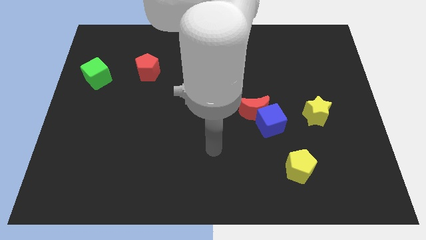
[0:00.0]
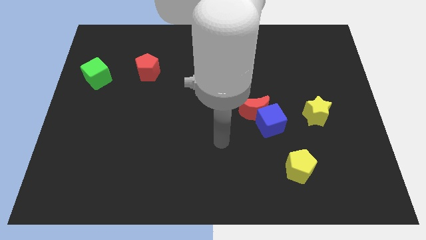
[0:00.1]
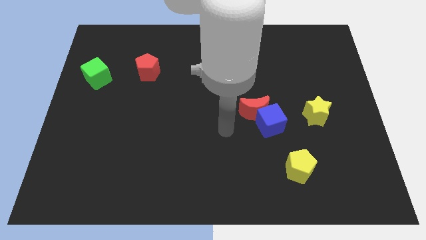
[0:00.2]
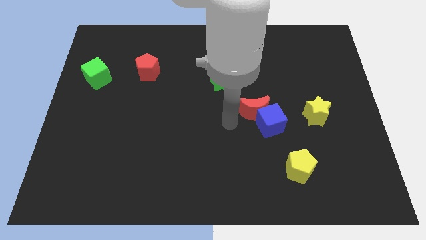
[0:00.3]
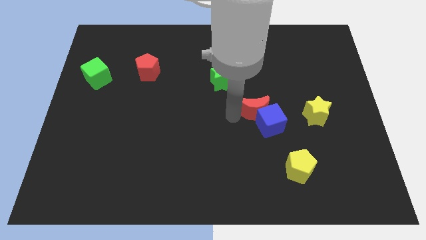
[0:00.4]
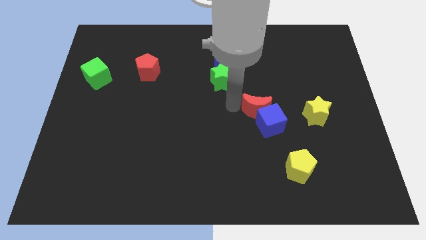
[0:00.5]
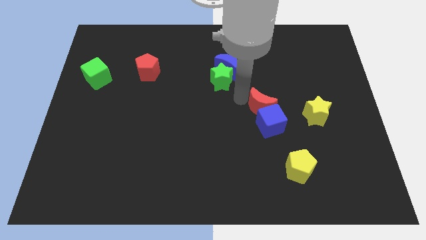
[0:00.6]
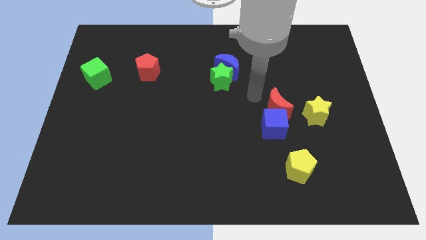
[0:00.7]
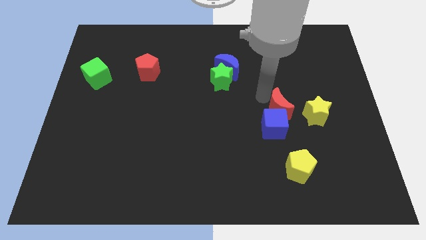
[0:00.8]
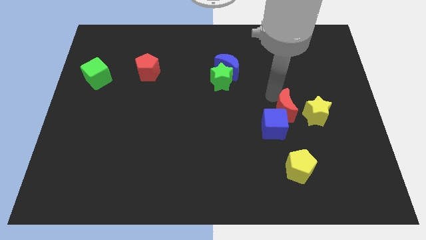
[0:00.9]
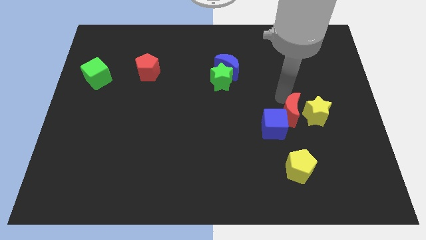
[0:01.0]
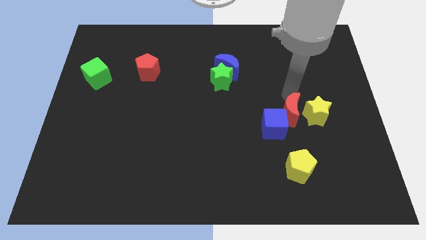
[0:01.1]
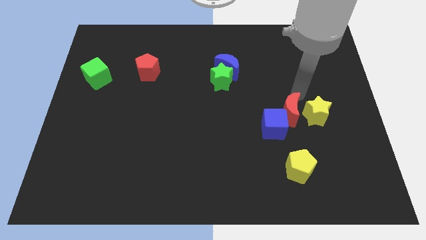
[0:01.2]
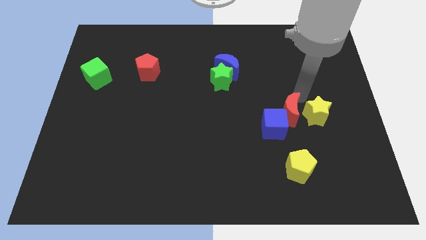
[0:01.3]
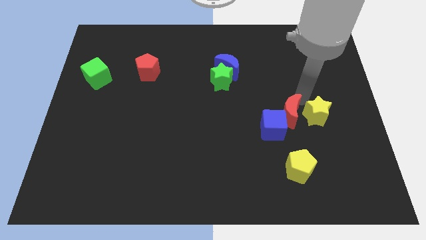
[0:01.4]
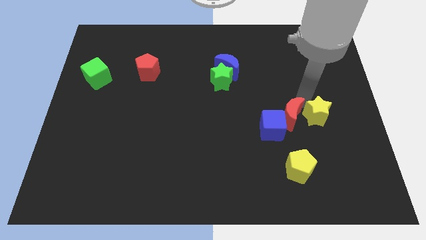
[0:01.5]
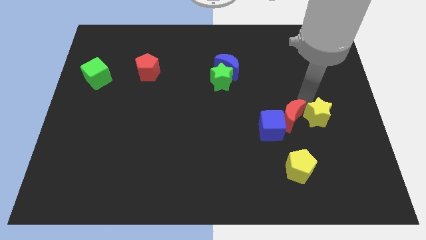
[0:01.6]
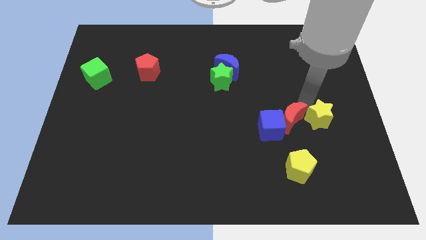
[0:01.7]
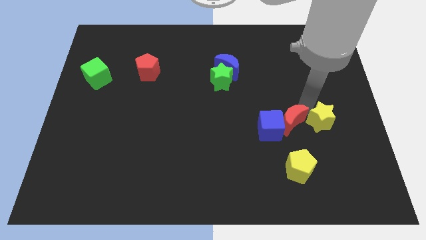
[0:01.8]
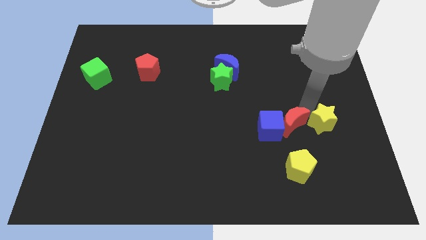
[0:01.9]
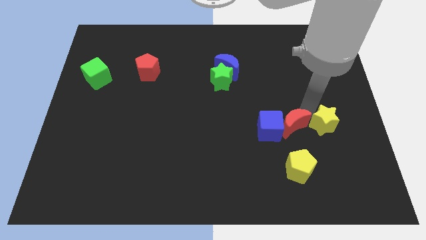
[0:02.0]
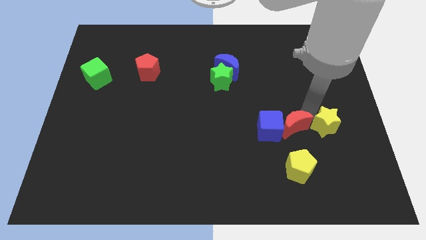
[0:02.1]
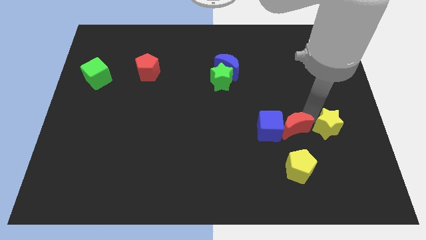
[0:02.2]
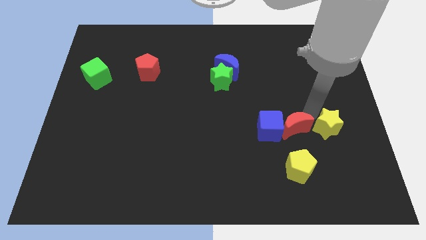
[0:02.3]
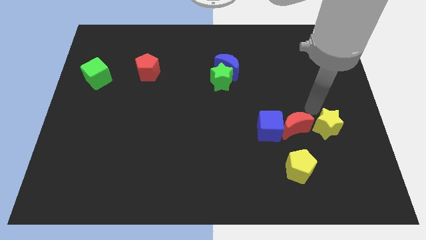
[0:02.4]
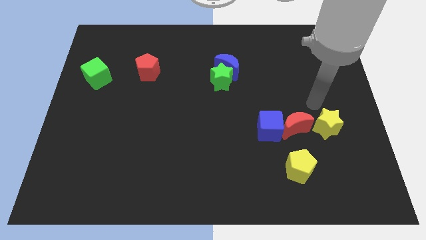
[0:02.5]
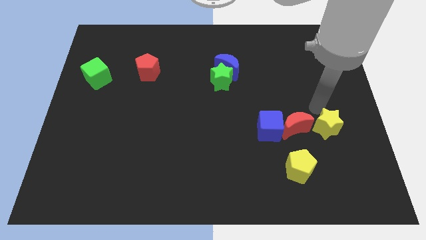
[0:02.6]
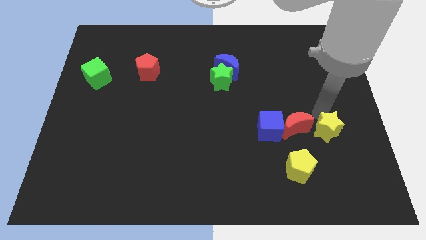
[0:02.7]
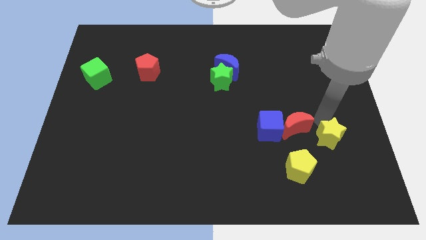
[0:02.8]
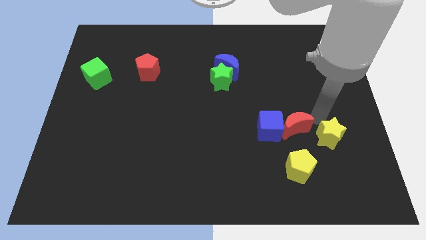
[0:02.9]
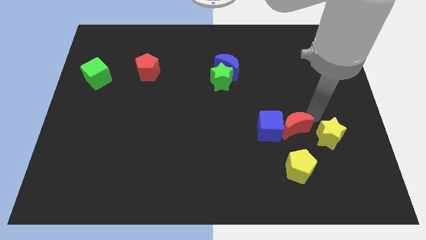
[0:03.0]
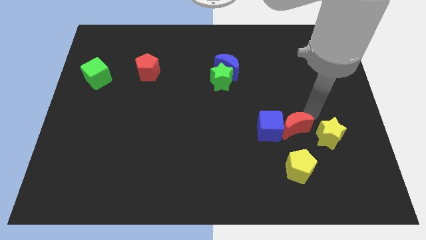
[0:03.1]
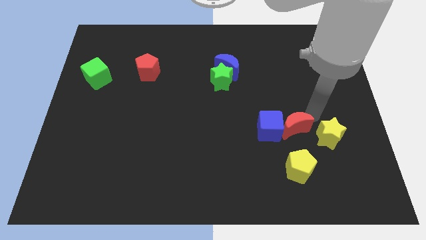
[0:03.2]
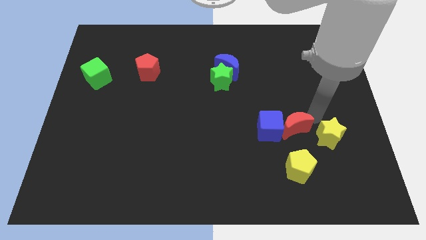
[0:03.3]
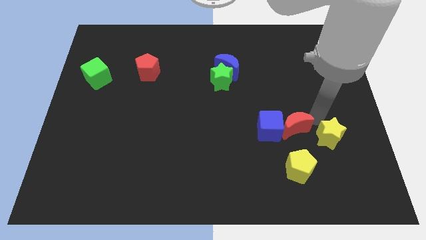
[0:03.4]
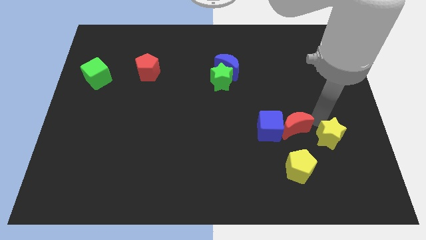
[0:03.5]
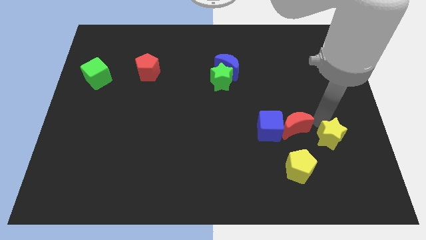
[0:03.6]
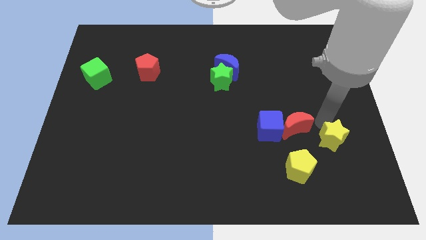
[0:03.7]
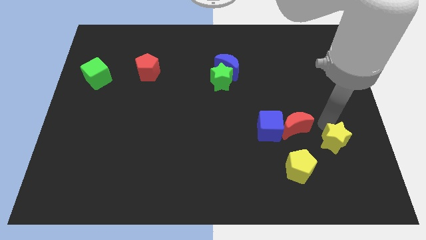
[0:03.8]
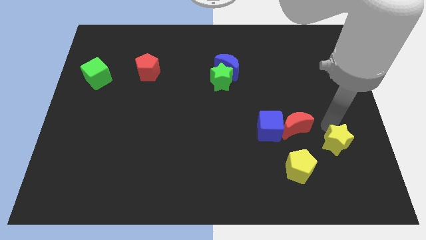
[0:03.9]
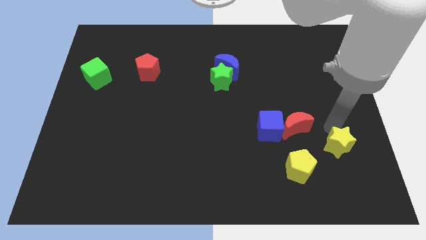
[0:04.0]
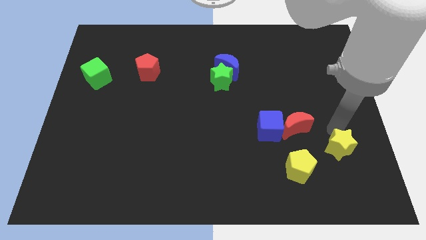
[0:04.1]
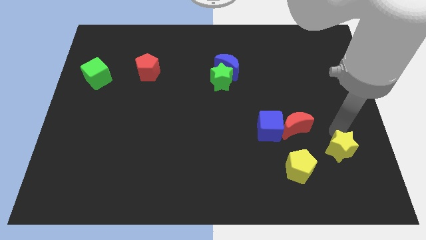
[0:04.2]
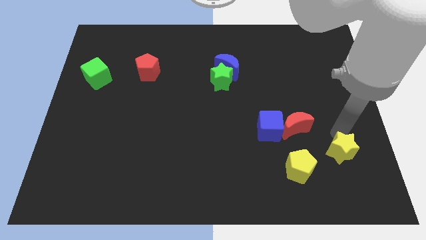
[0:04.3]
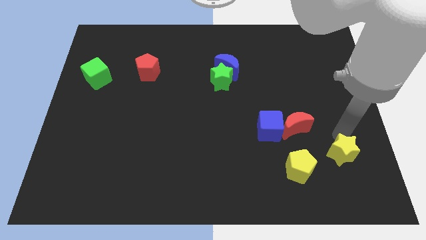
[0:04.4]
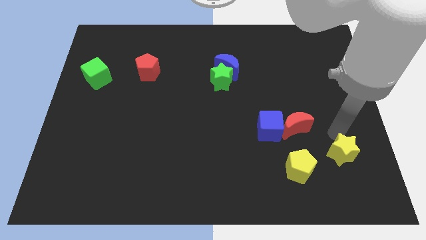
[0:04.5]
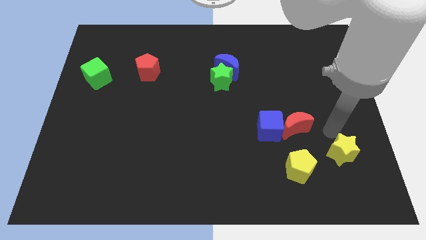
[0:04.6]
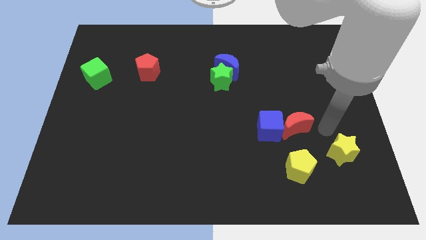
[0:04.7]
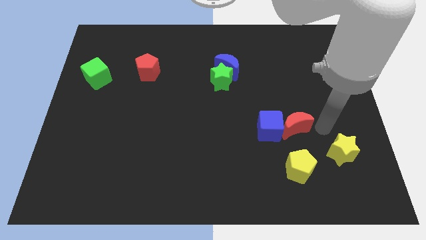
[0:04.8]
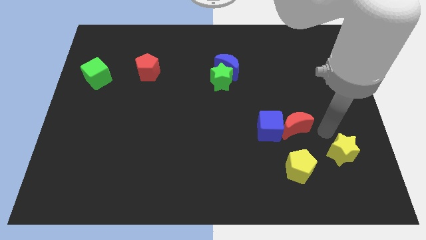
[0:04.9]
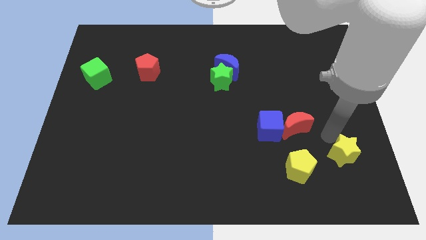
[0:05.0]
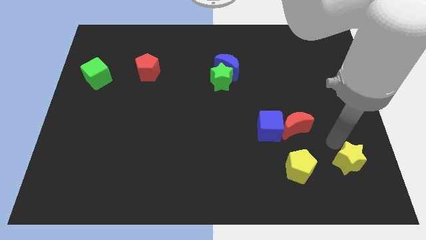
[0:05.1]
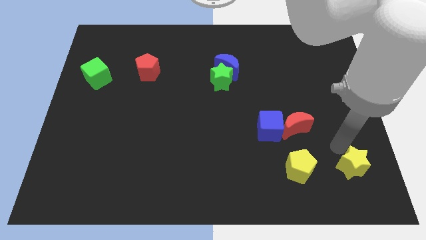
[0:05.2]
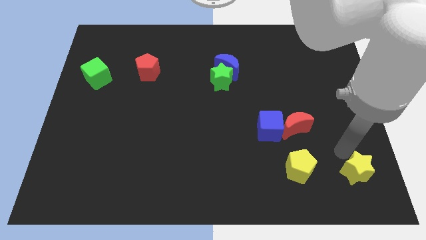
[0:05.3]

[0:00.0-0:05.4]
move the yellow star to the bottom right

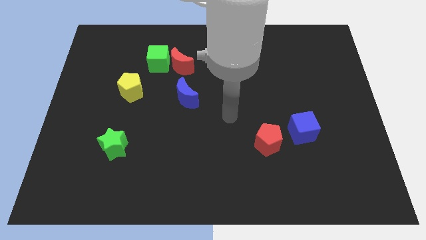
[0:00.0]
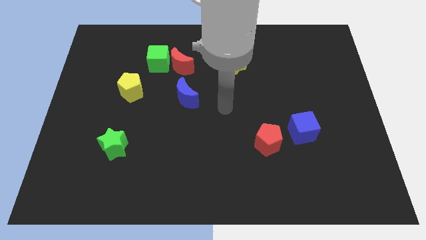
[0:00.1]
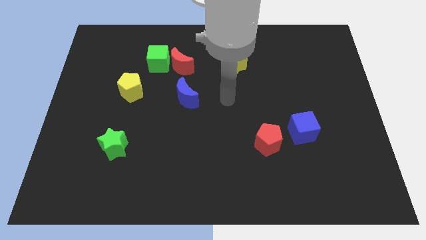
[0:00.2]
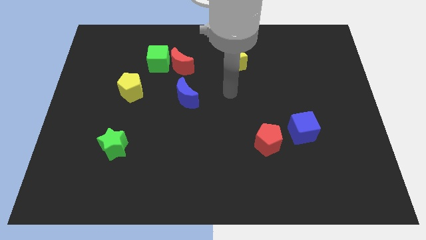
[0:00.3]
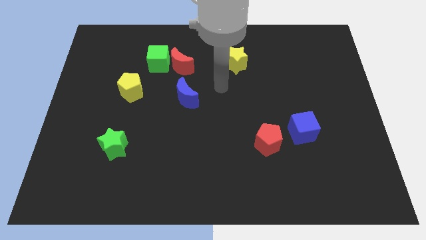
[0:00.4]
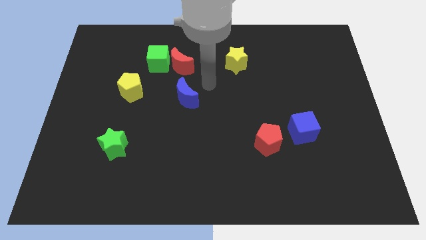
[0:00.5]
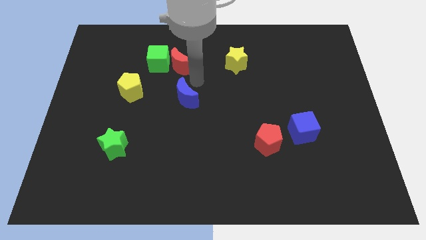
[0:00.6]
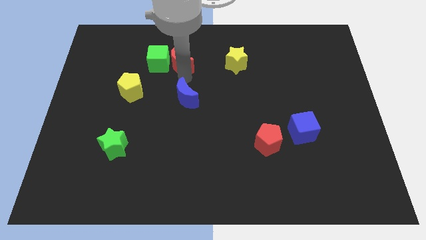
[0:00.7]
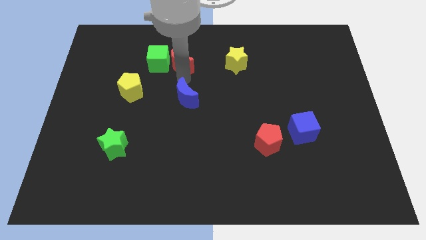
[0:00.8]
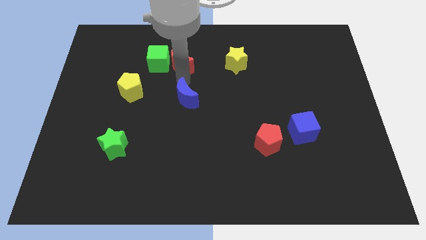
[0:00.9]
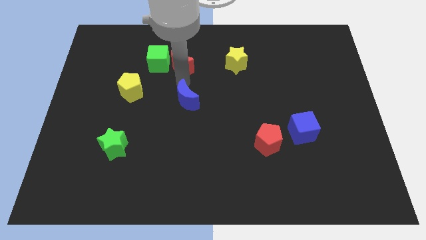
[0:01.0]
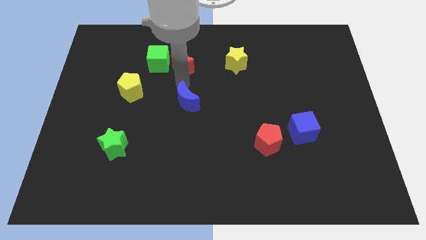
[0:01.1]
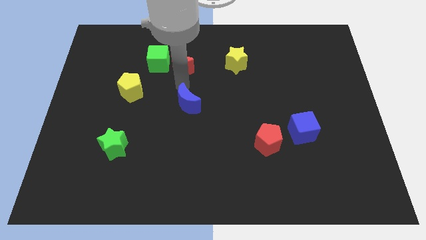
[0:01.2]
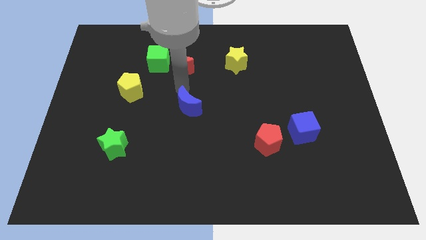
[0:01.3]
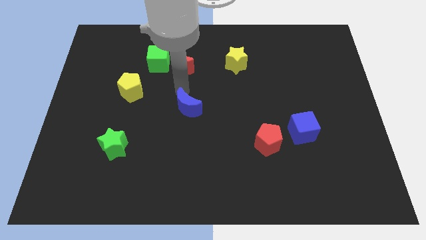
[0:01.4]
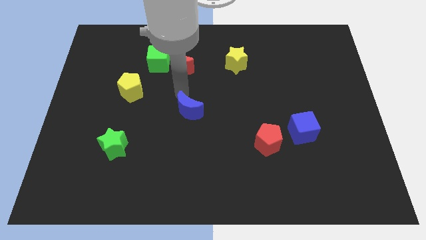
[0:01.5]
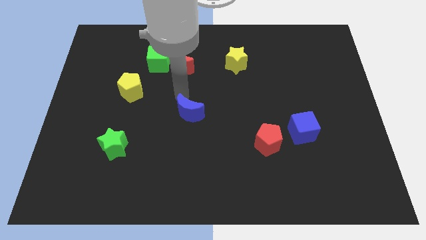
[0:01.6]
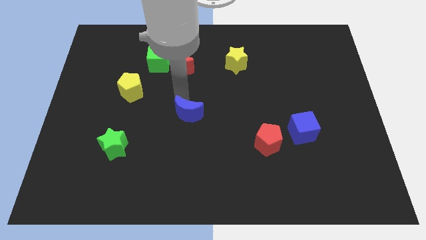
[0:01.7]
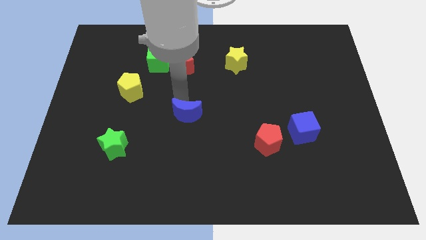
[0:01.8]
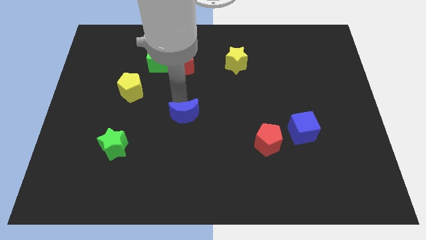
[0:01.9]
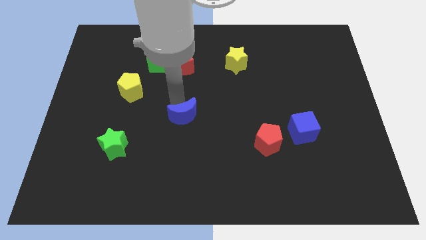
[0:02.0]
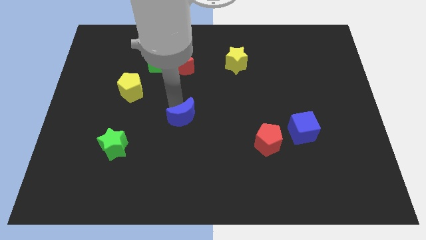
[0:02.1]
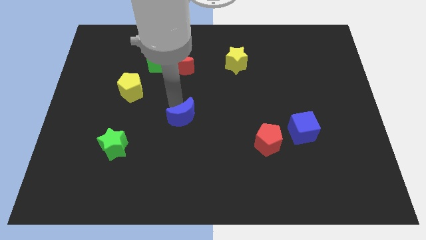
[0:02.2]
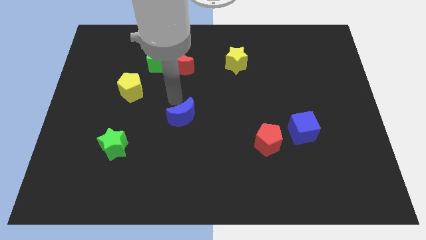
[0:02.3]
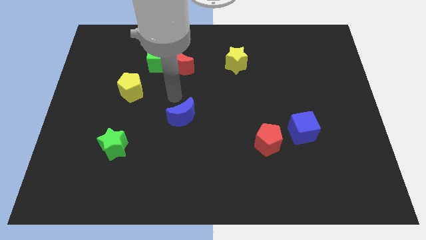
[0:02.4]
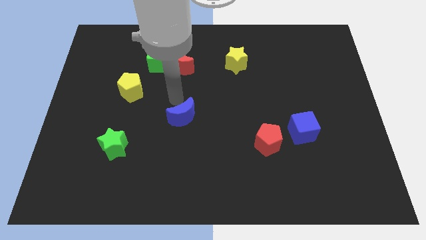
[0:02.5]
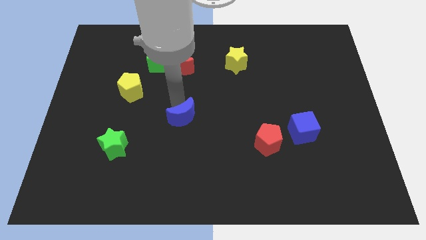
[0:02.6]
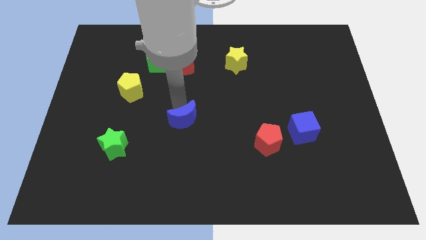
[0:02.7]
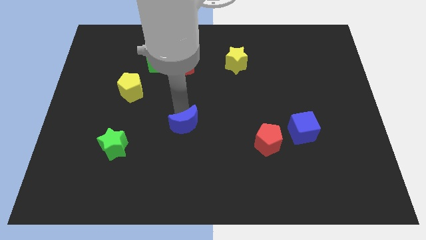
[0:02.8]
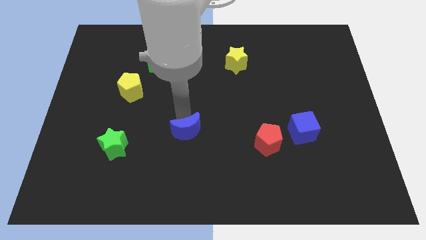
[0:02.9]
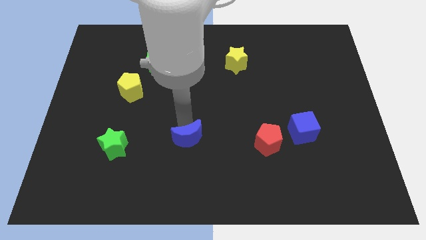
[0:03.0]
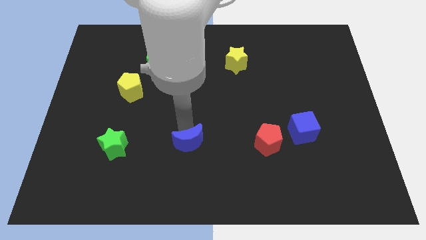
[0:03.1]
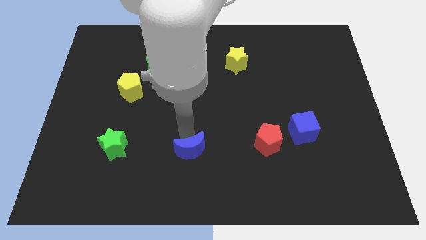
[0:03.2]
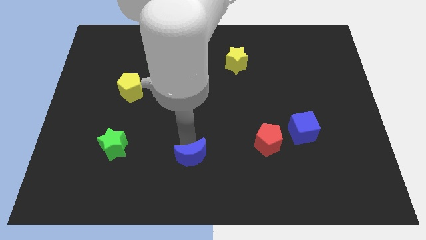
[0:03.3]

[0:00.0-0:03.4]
push the blue moon to the bottom side
